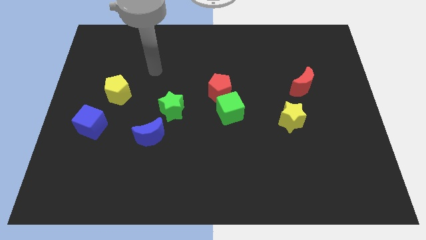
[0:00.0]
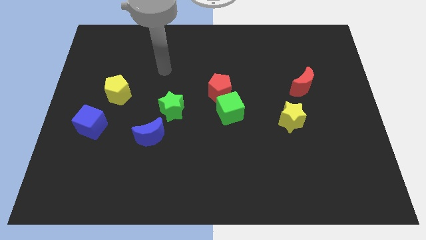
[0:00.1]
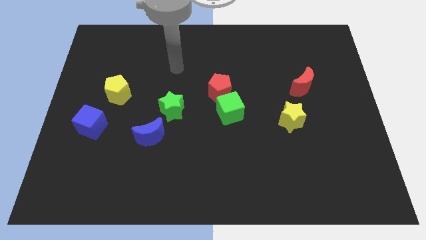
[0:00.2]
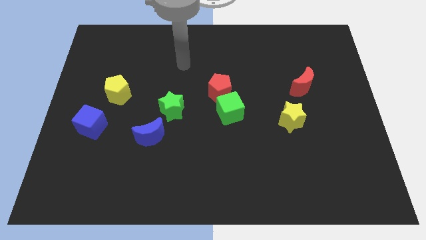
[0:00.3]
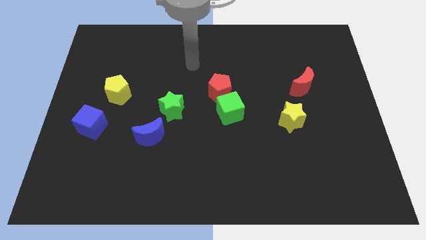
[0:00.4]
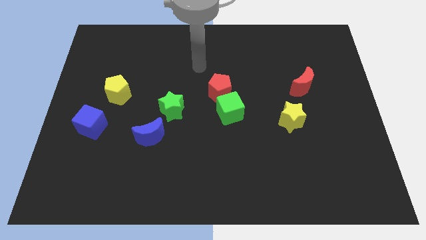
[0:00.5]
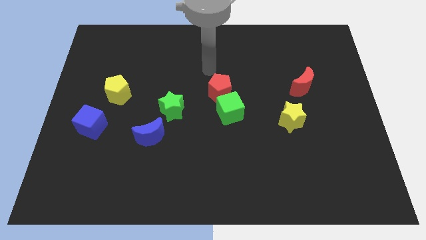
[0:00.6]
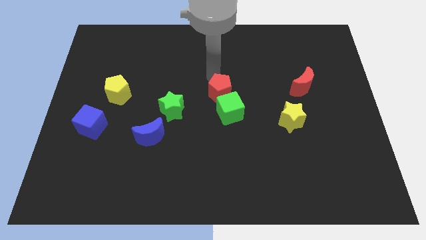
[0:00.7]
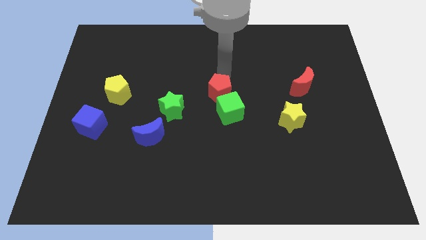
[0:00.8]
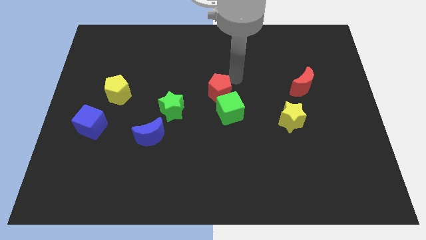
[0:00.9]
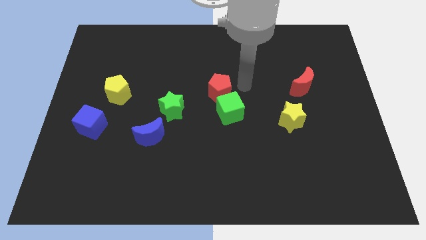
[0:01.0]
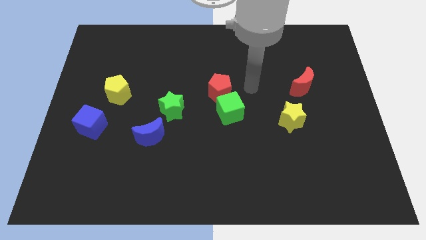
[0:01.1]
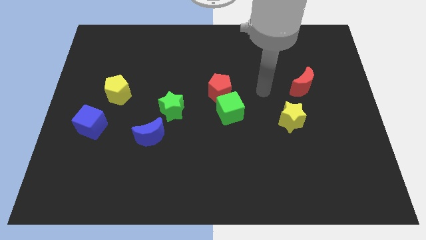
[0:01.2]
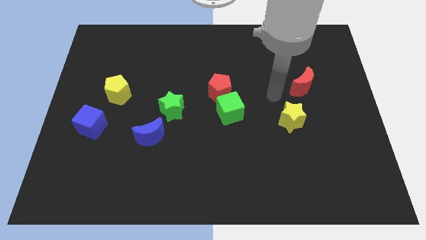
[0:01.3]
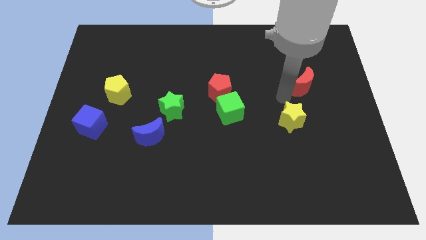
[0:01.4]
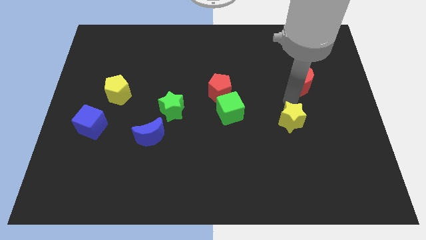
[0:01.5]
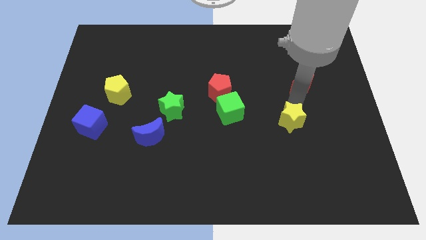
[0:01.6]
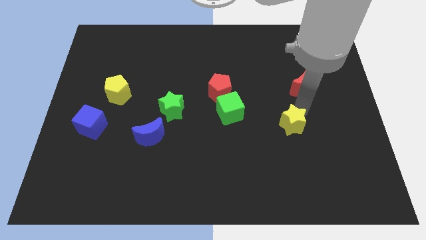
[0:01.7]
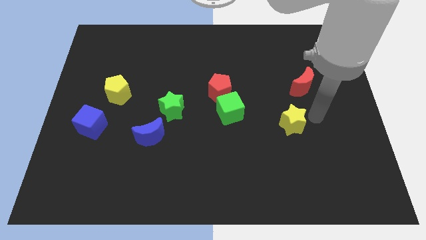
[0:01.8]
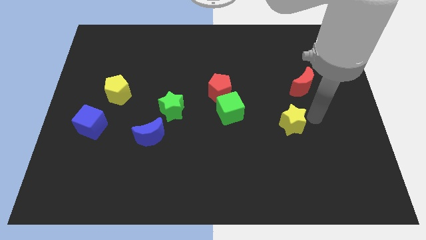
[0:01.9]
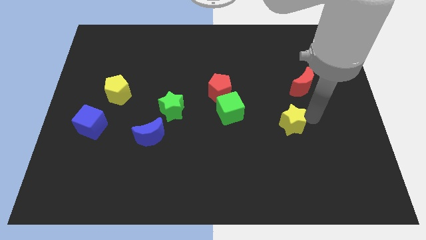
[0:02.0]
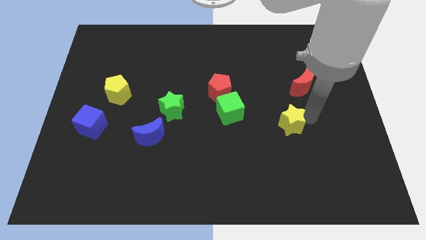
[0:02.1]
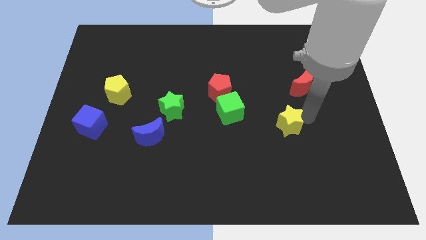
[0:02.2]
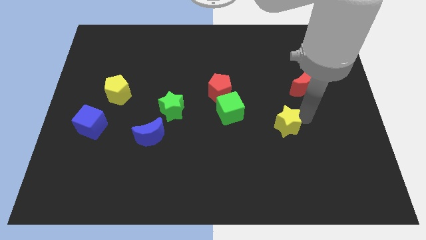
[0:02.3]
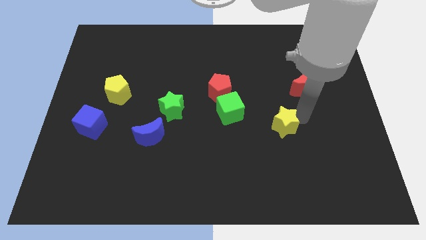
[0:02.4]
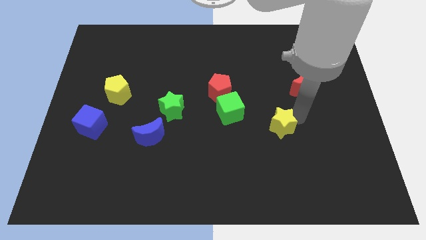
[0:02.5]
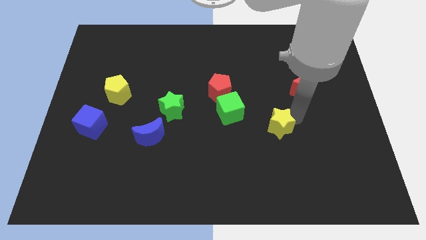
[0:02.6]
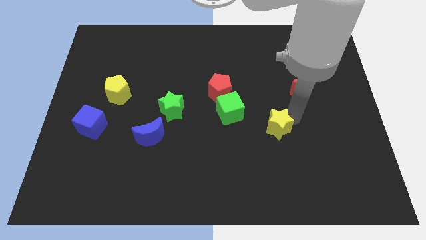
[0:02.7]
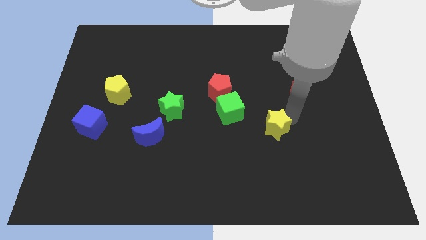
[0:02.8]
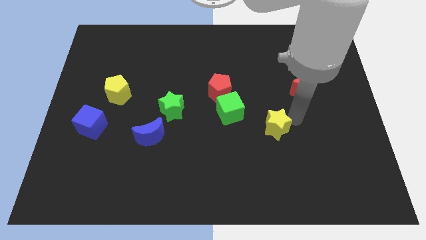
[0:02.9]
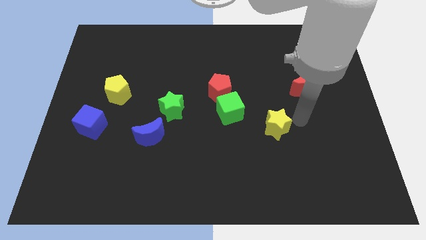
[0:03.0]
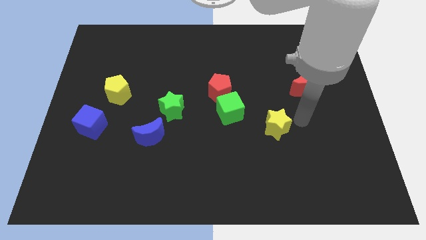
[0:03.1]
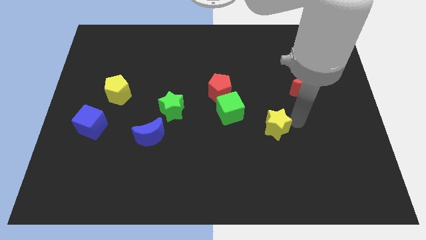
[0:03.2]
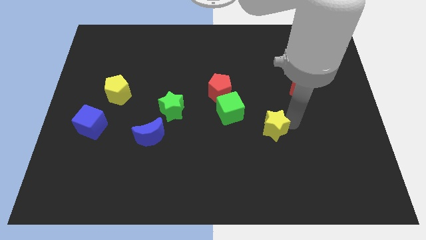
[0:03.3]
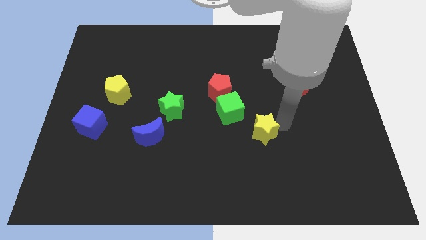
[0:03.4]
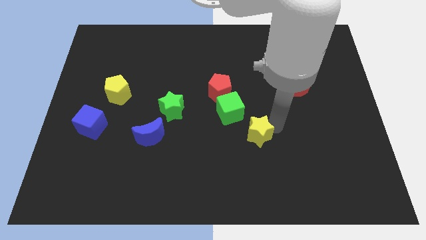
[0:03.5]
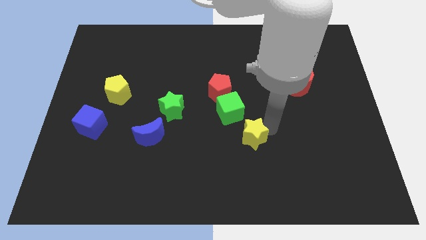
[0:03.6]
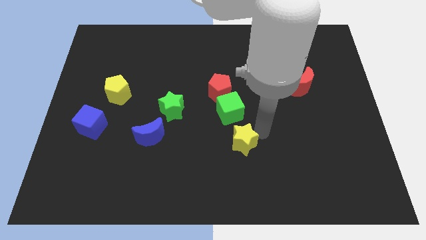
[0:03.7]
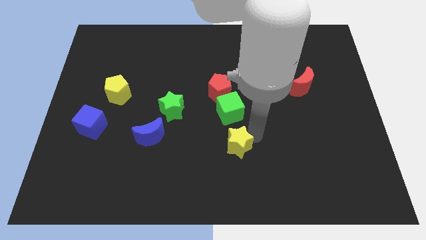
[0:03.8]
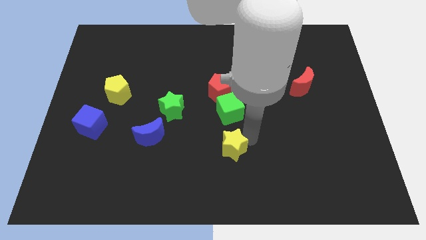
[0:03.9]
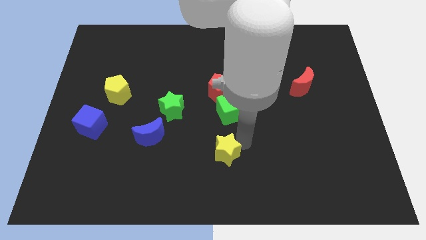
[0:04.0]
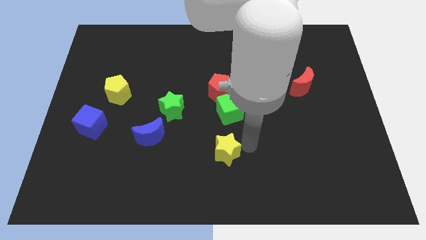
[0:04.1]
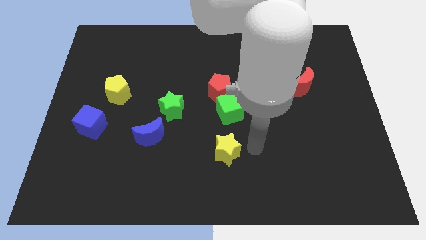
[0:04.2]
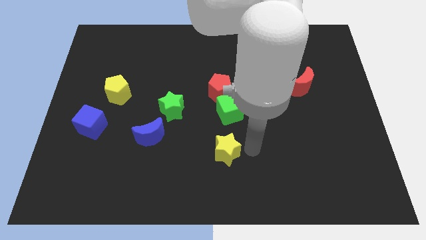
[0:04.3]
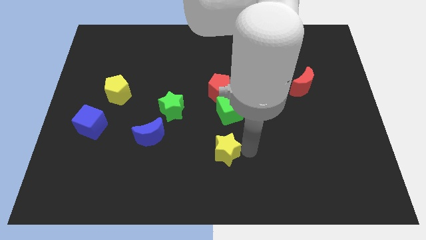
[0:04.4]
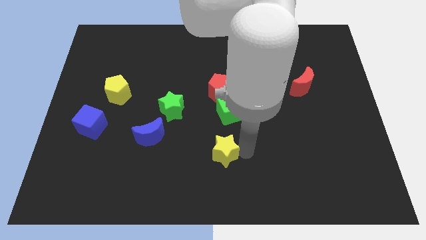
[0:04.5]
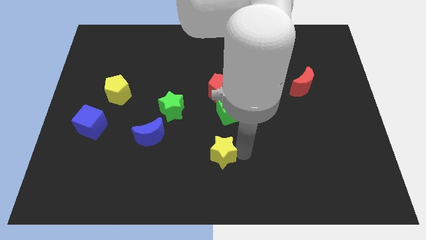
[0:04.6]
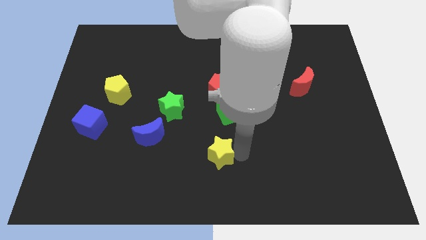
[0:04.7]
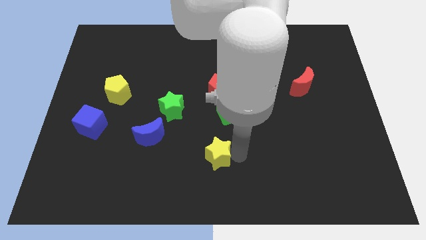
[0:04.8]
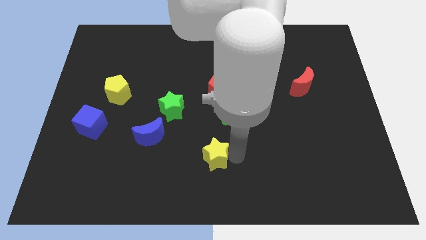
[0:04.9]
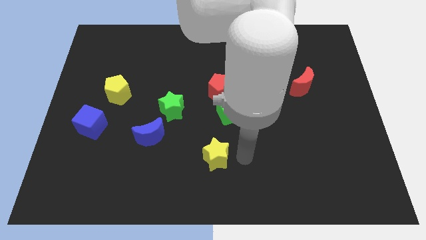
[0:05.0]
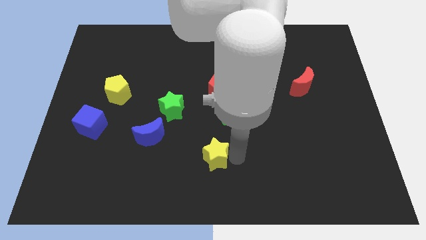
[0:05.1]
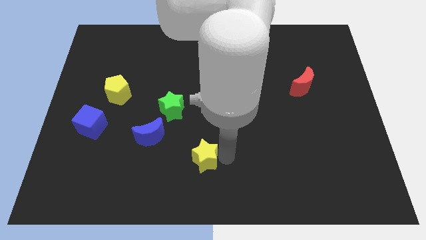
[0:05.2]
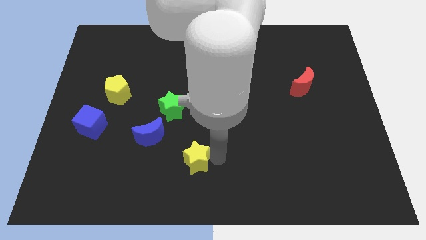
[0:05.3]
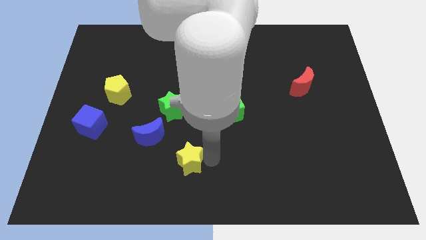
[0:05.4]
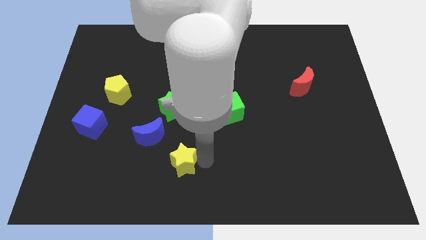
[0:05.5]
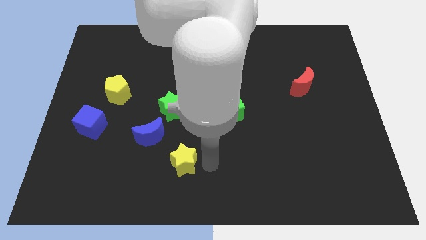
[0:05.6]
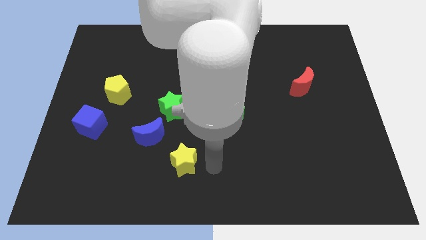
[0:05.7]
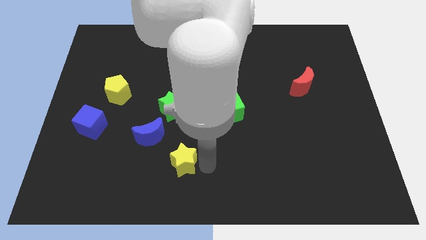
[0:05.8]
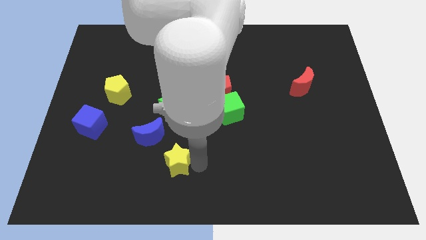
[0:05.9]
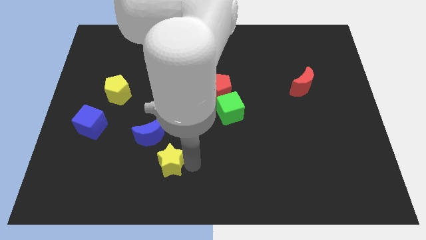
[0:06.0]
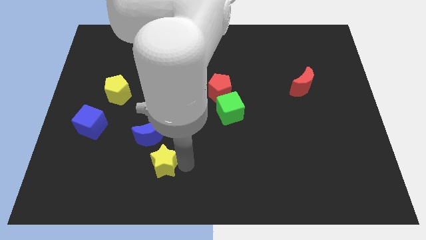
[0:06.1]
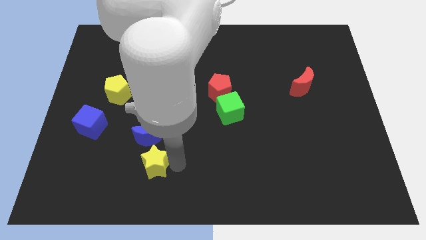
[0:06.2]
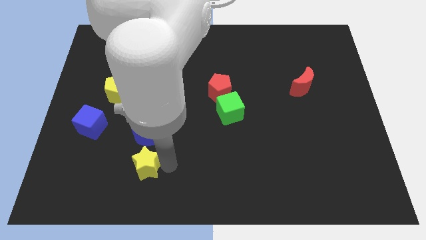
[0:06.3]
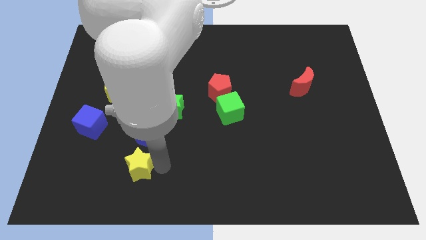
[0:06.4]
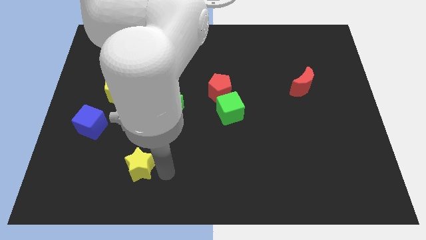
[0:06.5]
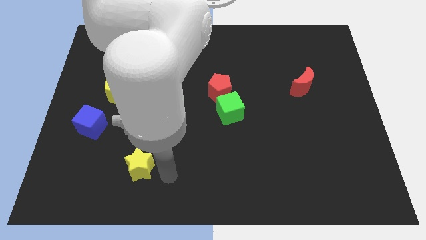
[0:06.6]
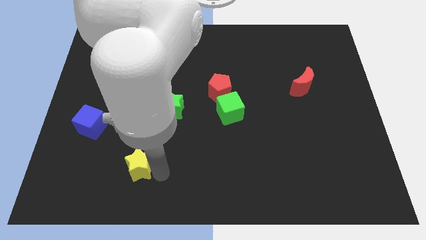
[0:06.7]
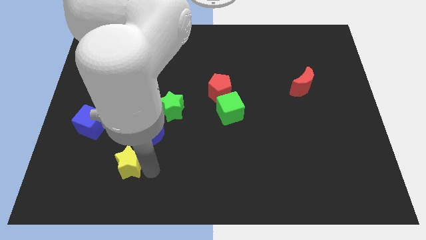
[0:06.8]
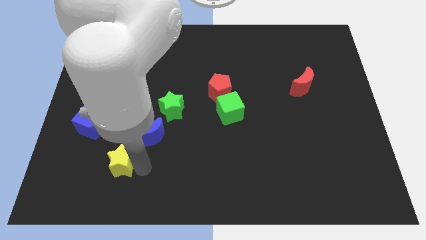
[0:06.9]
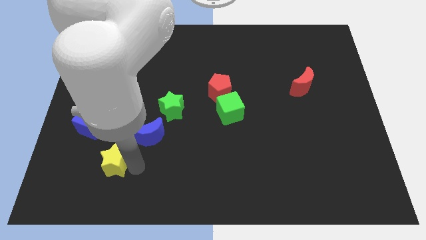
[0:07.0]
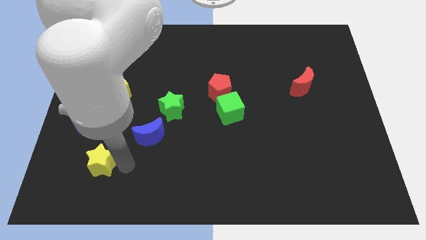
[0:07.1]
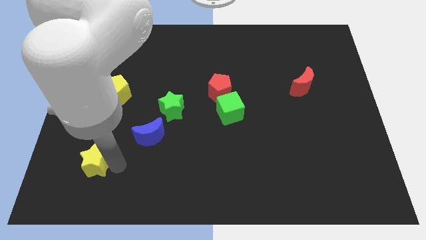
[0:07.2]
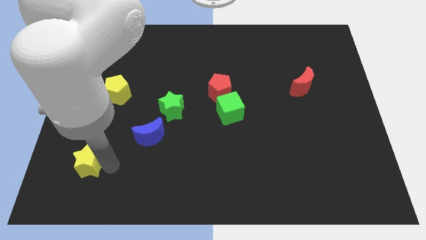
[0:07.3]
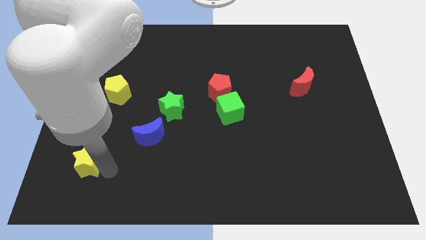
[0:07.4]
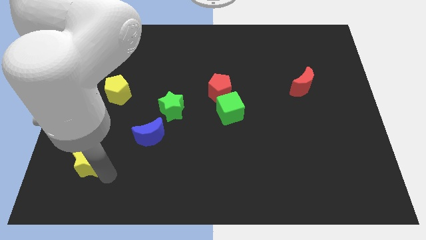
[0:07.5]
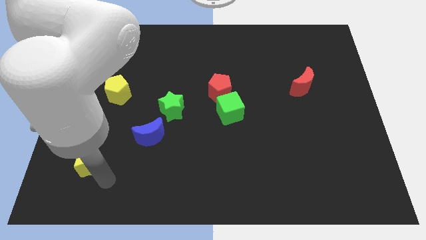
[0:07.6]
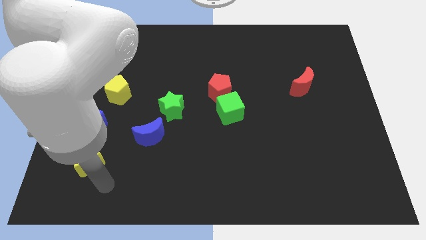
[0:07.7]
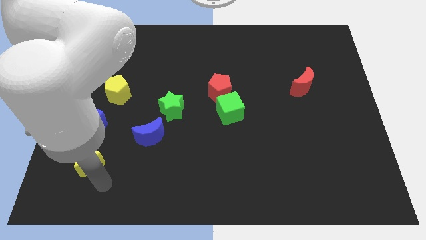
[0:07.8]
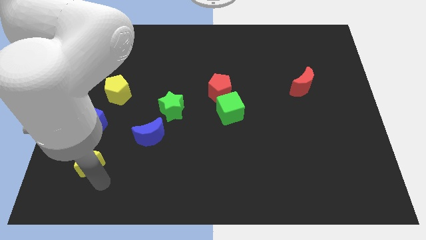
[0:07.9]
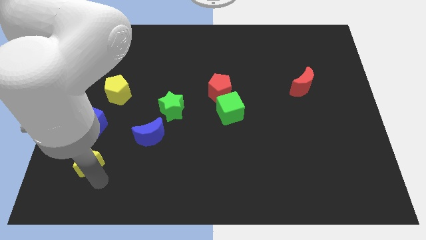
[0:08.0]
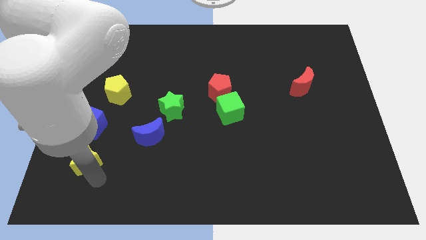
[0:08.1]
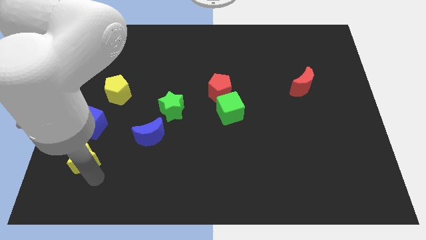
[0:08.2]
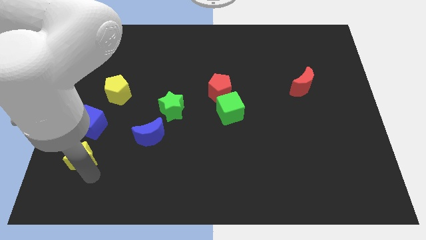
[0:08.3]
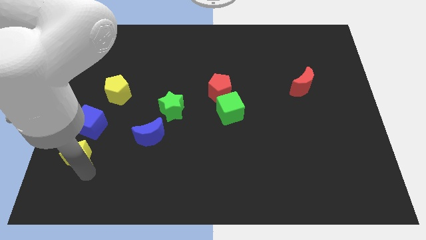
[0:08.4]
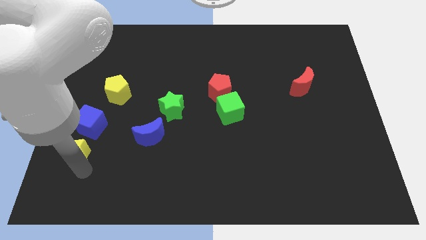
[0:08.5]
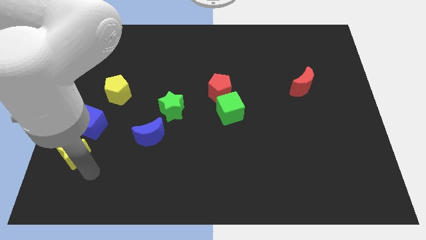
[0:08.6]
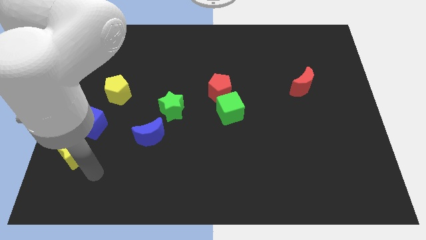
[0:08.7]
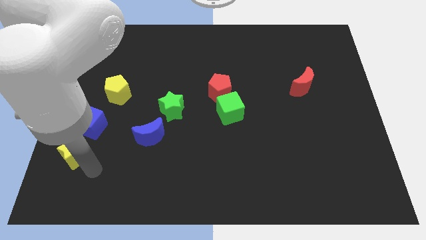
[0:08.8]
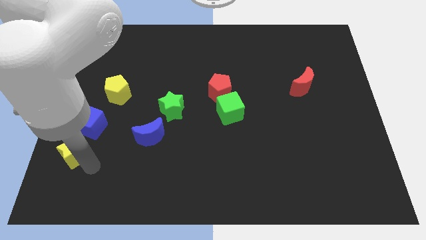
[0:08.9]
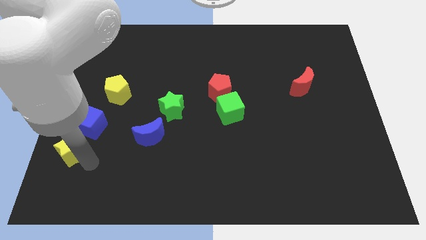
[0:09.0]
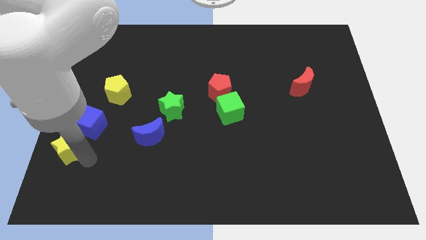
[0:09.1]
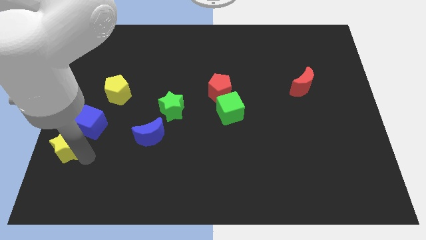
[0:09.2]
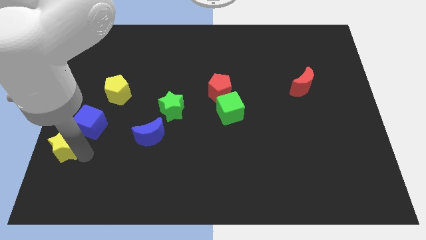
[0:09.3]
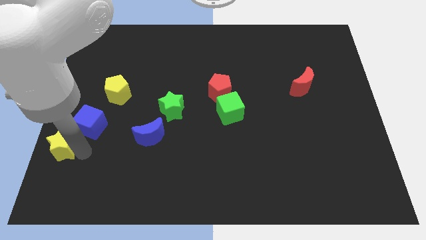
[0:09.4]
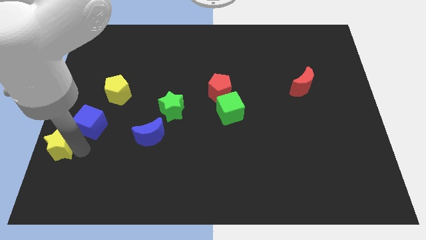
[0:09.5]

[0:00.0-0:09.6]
move the yellow star to the center left
